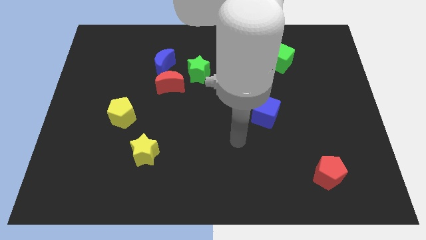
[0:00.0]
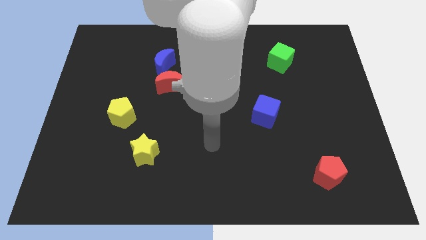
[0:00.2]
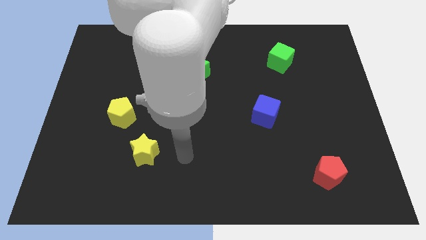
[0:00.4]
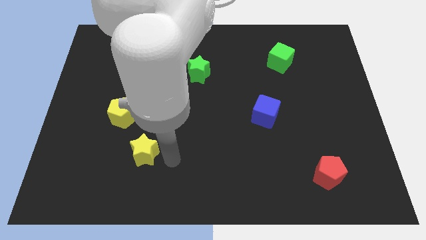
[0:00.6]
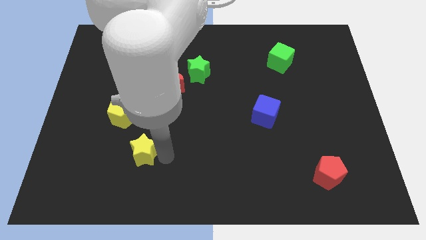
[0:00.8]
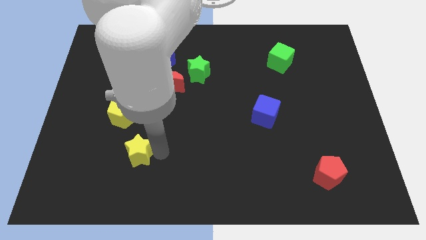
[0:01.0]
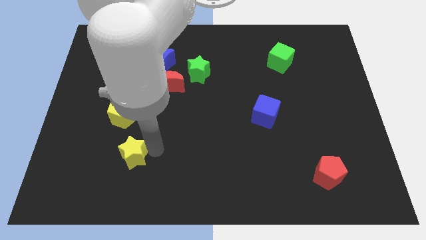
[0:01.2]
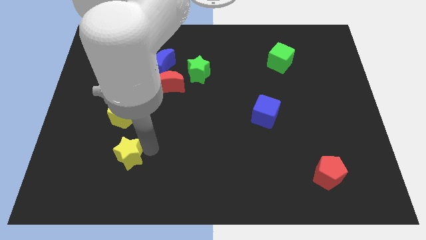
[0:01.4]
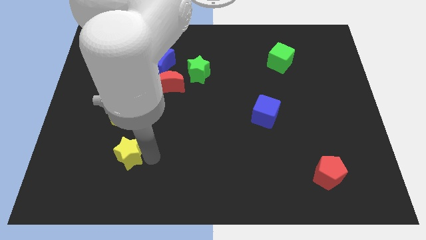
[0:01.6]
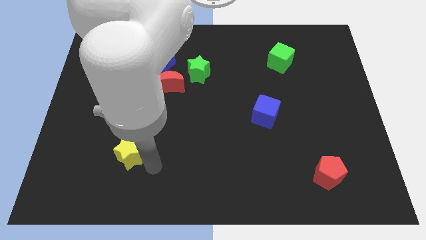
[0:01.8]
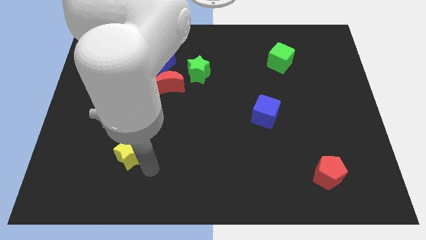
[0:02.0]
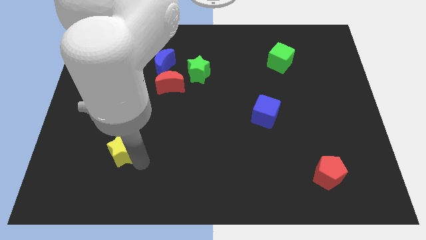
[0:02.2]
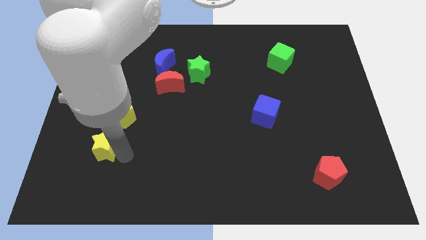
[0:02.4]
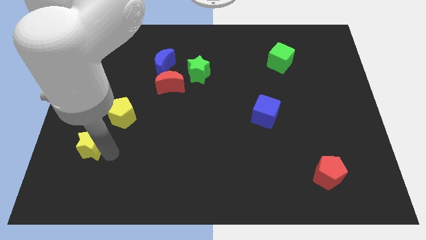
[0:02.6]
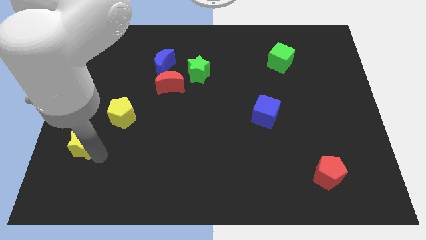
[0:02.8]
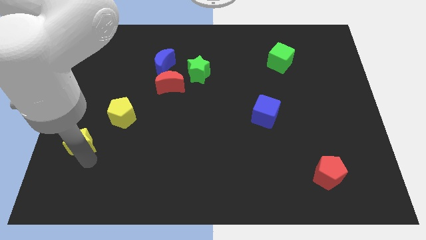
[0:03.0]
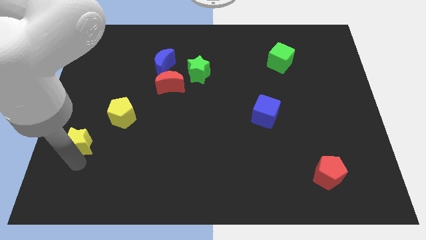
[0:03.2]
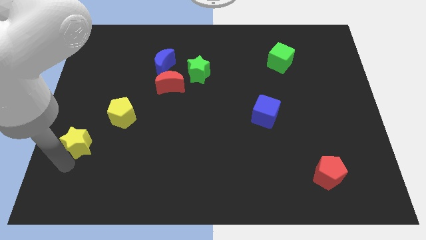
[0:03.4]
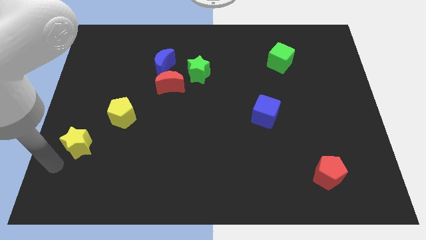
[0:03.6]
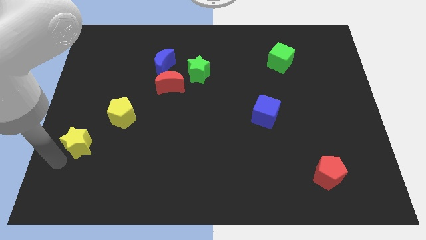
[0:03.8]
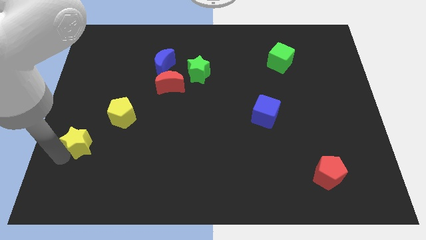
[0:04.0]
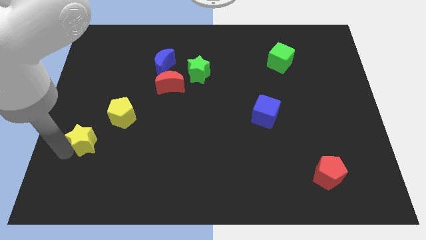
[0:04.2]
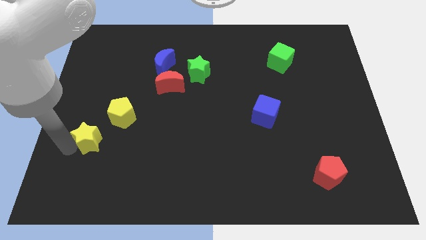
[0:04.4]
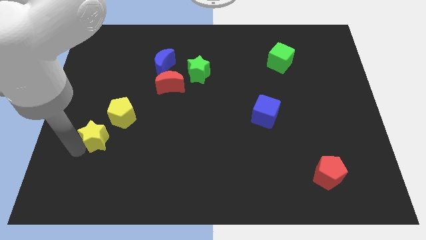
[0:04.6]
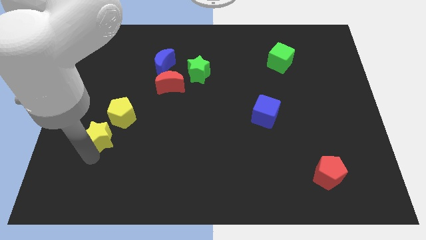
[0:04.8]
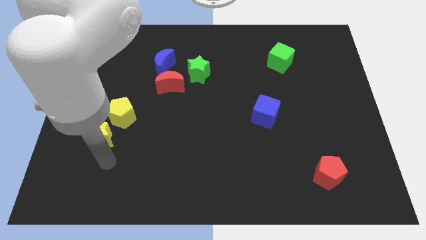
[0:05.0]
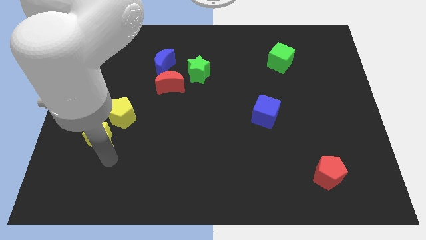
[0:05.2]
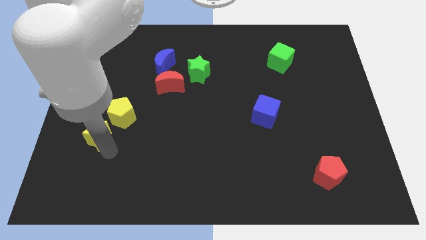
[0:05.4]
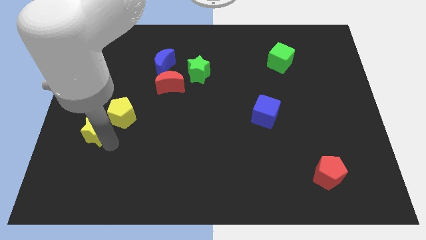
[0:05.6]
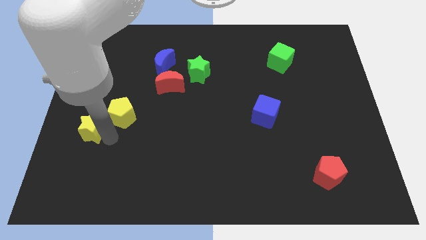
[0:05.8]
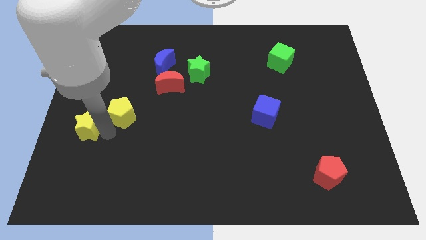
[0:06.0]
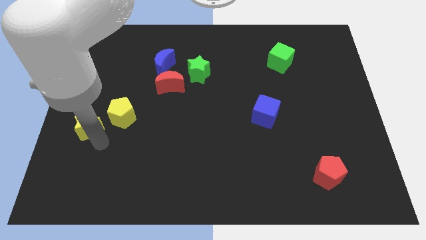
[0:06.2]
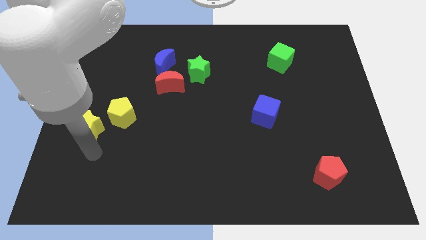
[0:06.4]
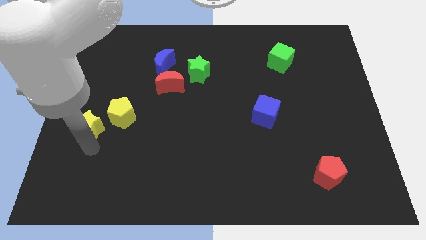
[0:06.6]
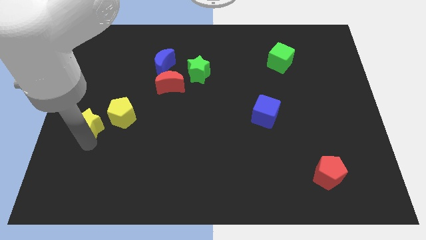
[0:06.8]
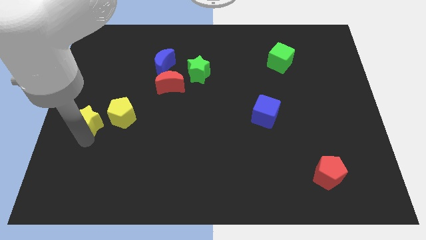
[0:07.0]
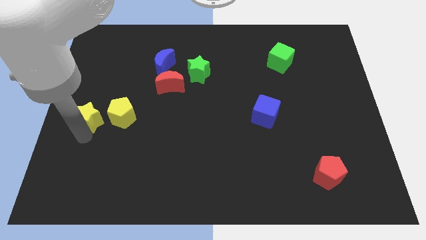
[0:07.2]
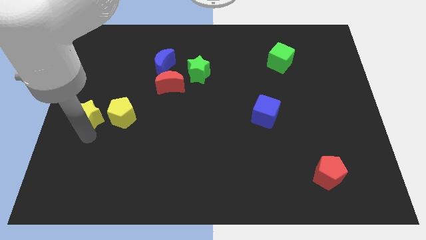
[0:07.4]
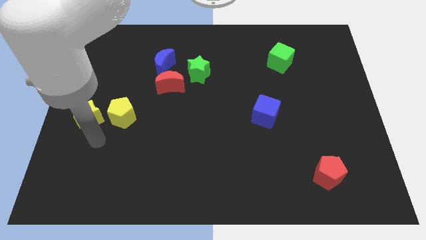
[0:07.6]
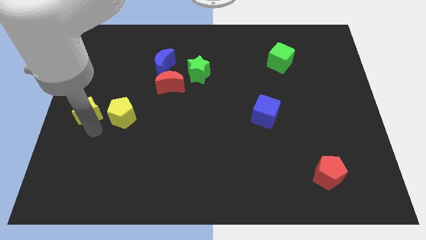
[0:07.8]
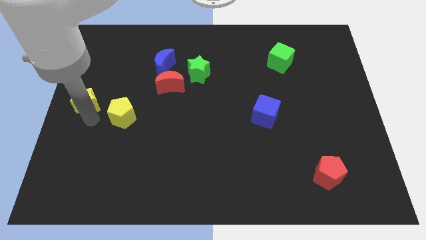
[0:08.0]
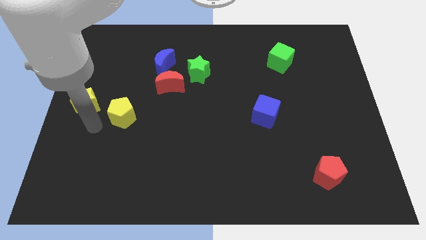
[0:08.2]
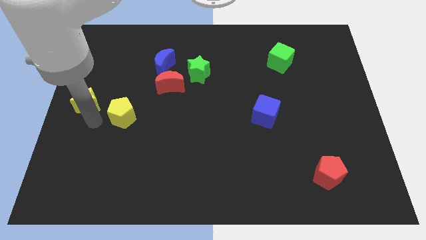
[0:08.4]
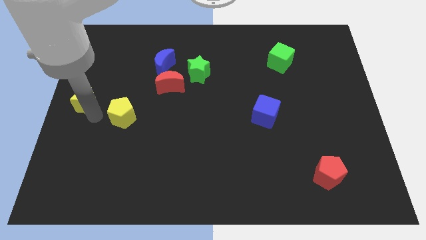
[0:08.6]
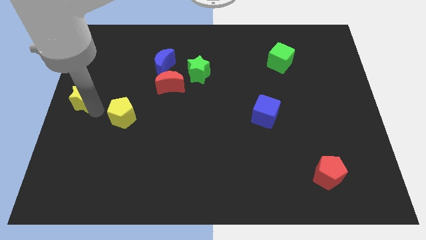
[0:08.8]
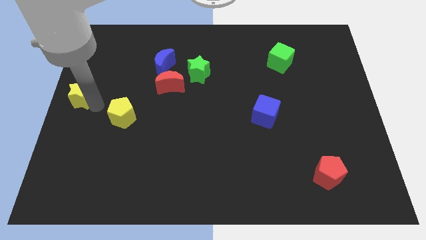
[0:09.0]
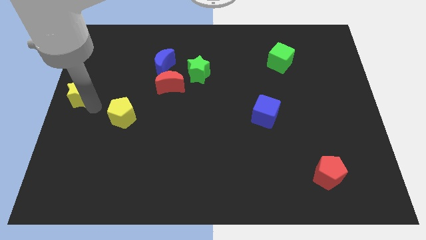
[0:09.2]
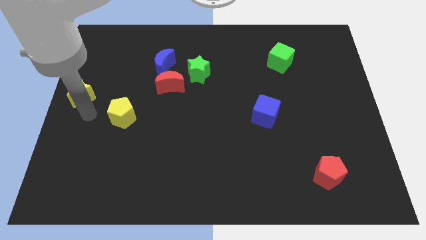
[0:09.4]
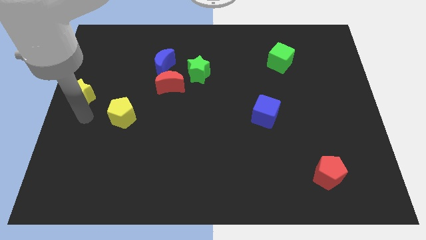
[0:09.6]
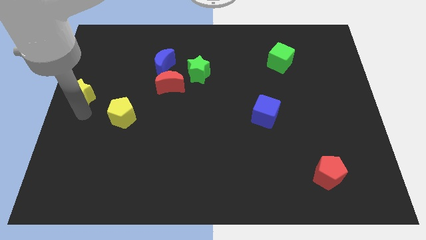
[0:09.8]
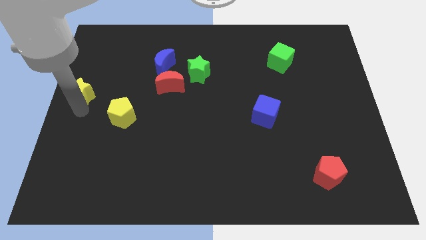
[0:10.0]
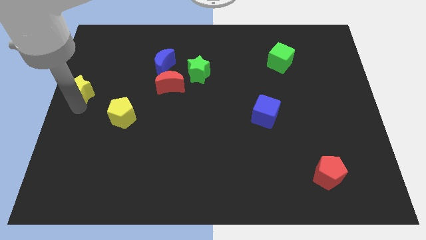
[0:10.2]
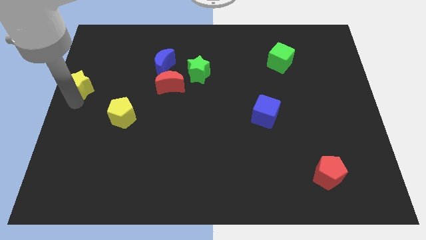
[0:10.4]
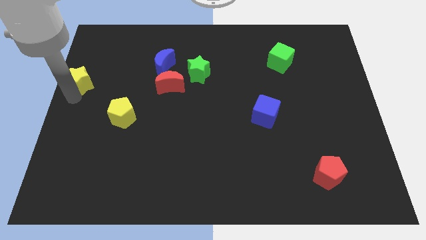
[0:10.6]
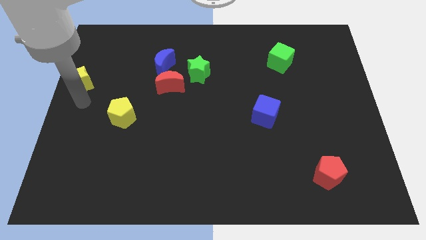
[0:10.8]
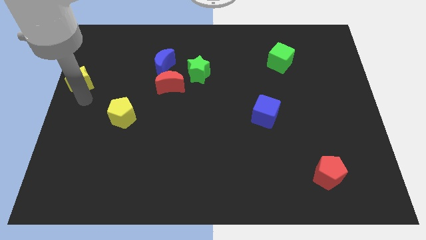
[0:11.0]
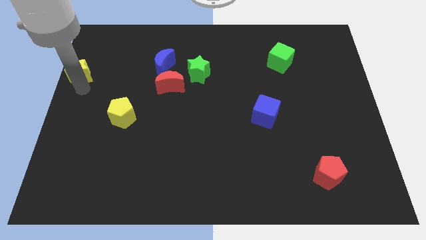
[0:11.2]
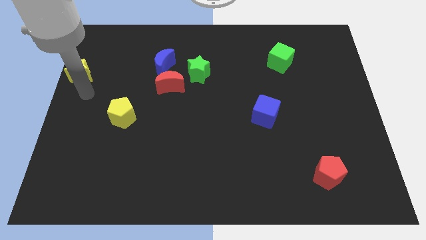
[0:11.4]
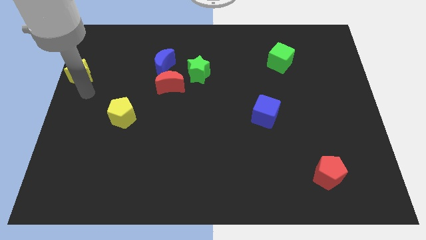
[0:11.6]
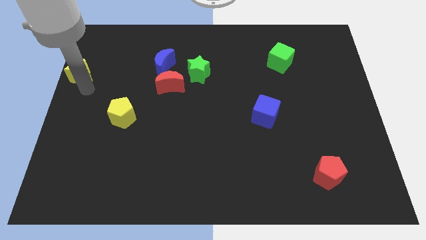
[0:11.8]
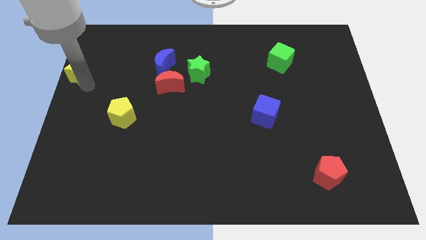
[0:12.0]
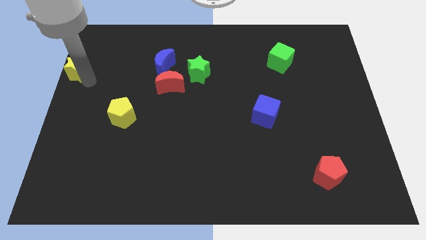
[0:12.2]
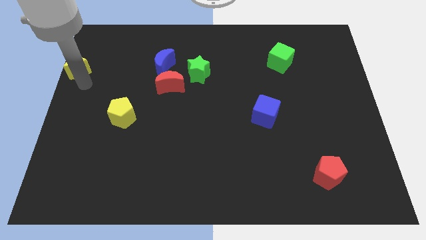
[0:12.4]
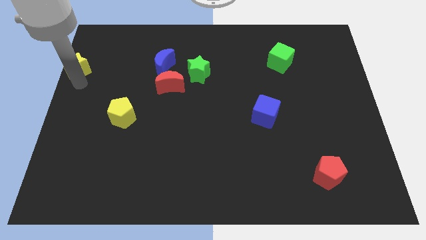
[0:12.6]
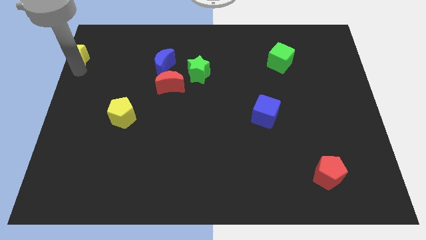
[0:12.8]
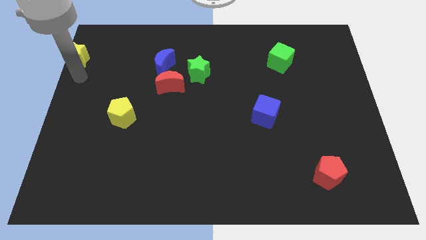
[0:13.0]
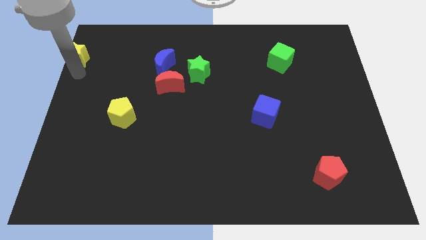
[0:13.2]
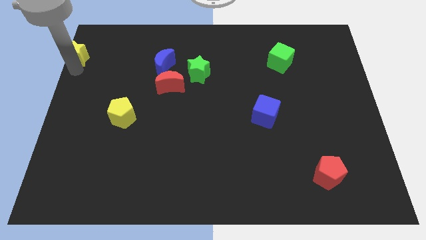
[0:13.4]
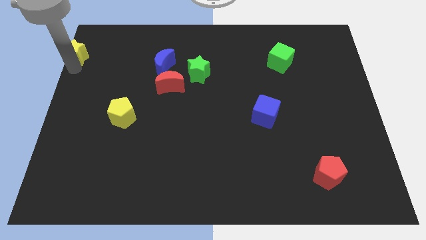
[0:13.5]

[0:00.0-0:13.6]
put the yellow star to the top left corner
